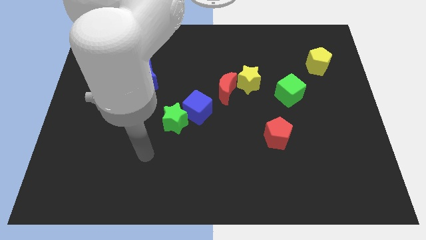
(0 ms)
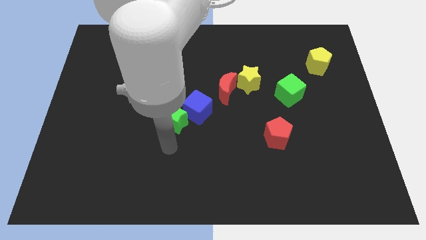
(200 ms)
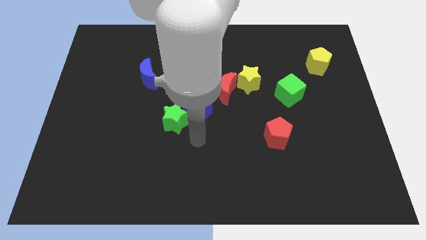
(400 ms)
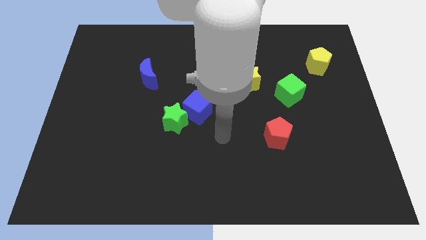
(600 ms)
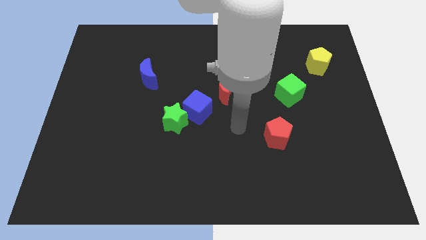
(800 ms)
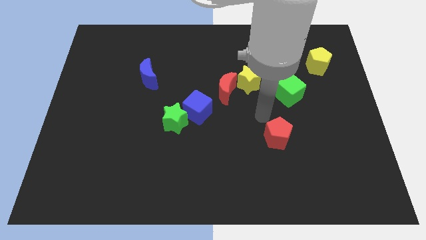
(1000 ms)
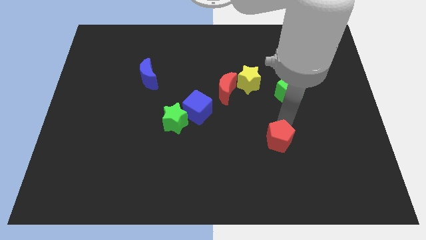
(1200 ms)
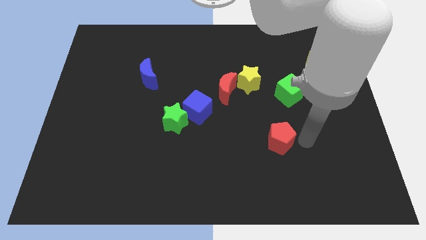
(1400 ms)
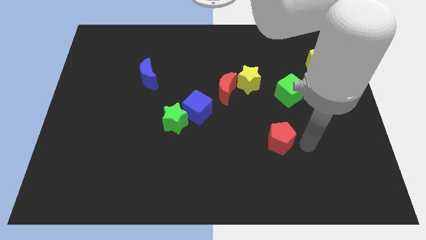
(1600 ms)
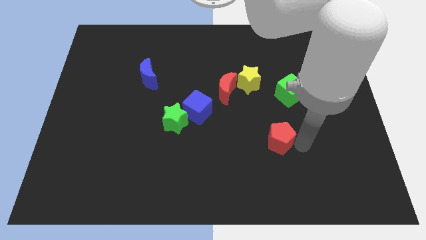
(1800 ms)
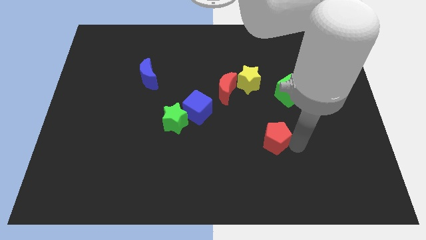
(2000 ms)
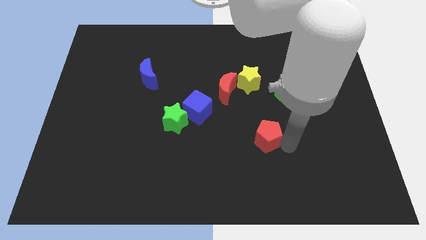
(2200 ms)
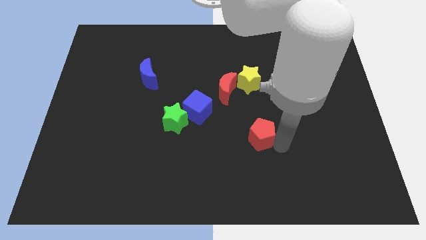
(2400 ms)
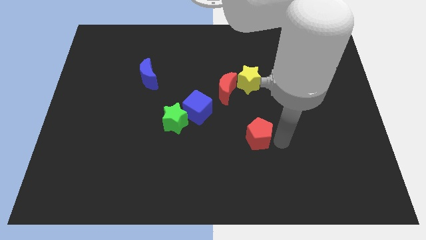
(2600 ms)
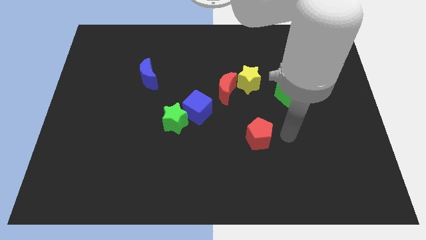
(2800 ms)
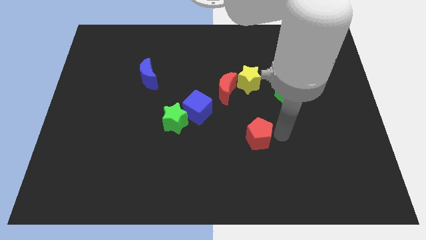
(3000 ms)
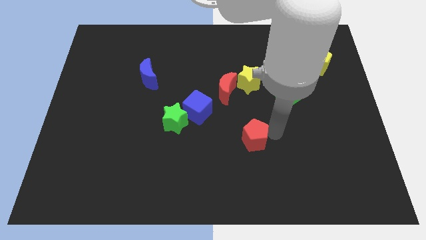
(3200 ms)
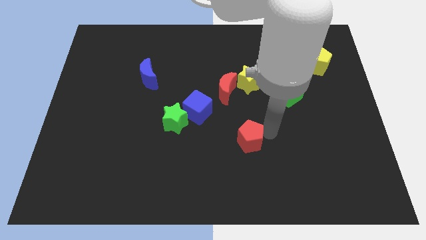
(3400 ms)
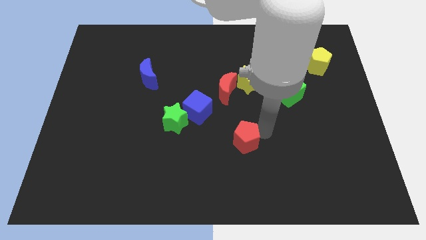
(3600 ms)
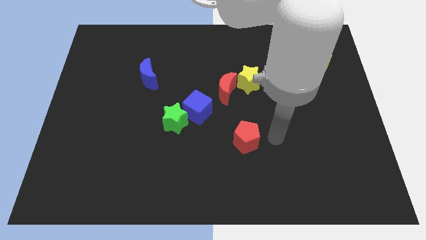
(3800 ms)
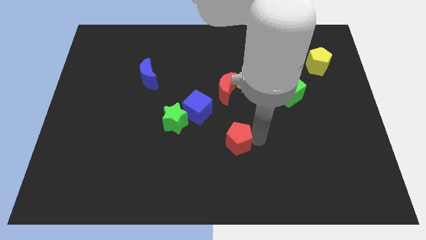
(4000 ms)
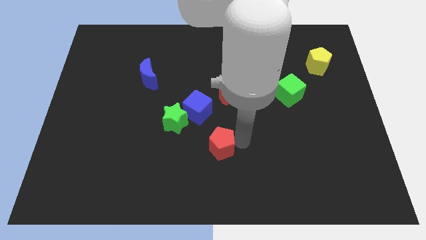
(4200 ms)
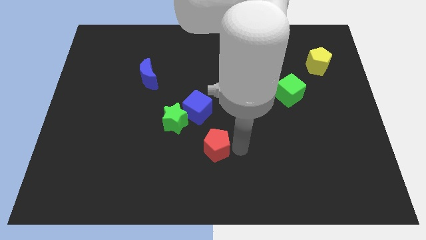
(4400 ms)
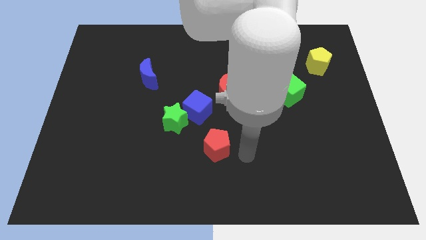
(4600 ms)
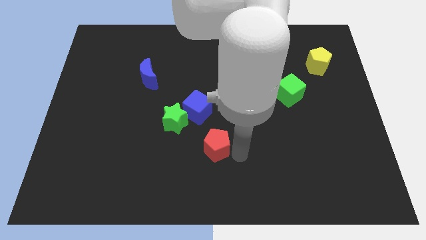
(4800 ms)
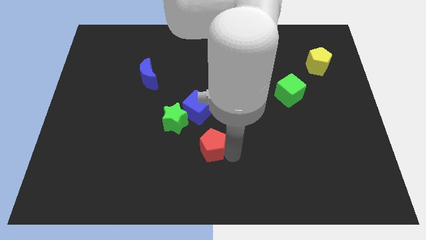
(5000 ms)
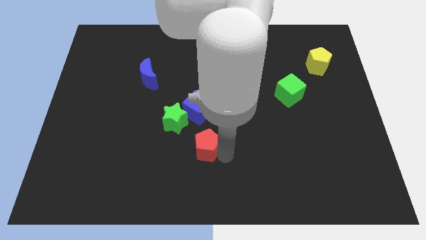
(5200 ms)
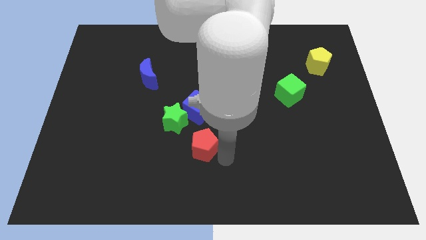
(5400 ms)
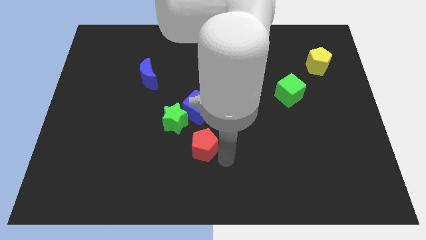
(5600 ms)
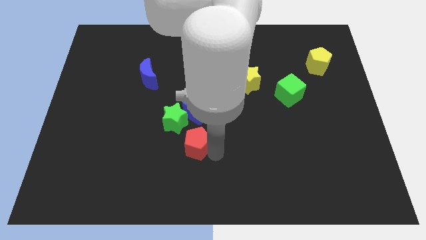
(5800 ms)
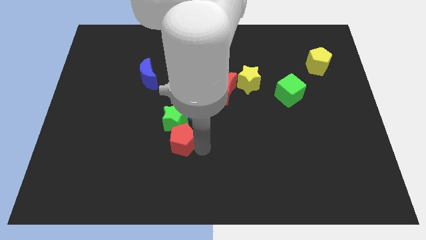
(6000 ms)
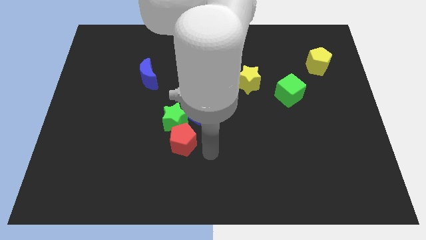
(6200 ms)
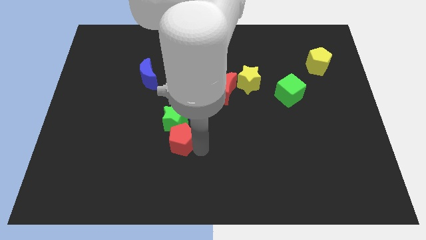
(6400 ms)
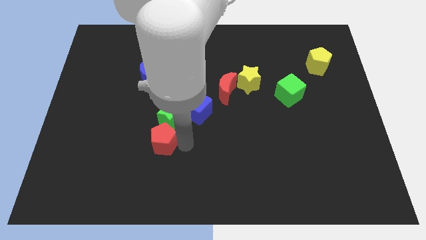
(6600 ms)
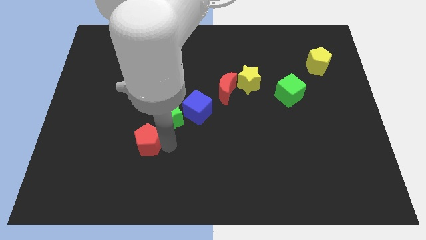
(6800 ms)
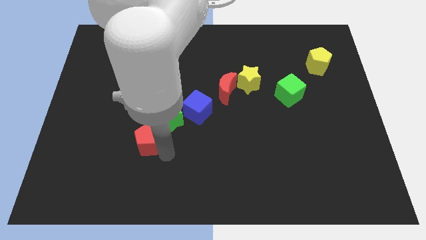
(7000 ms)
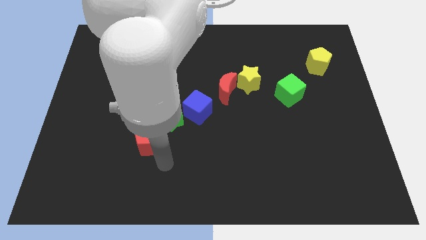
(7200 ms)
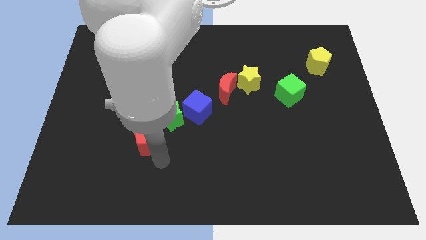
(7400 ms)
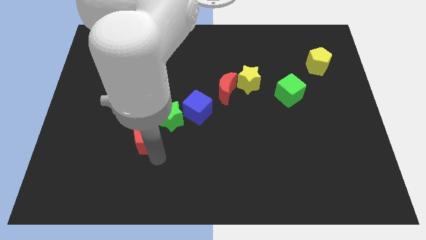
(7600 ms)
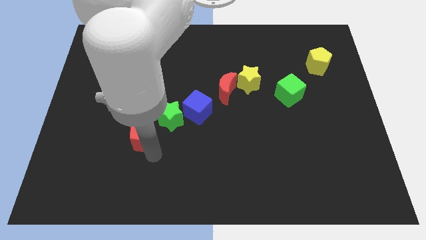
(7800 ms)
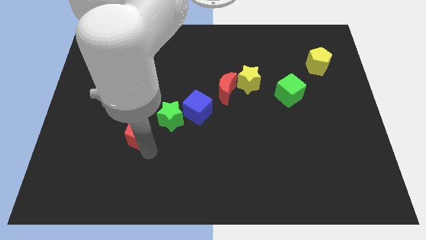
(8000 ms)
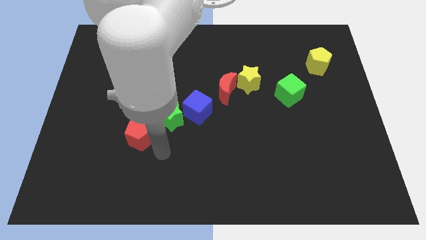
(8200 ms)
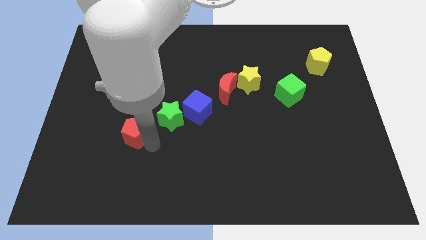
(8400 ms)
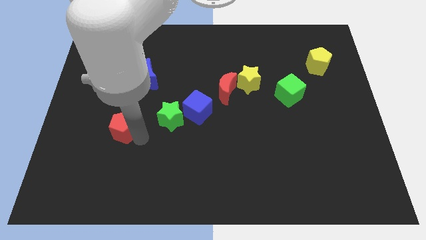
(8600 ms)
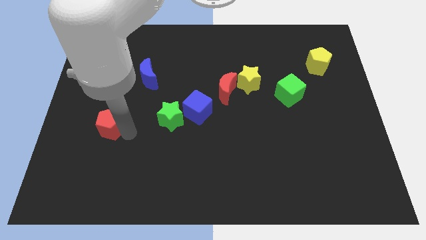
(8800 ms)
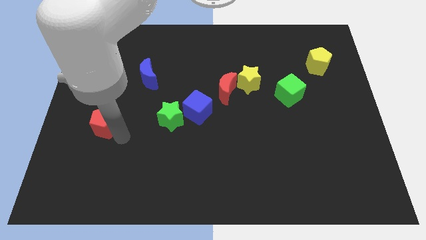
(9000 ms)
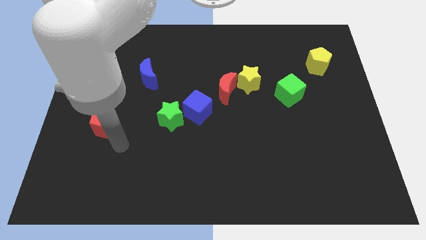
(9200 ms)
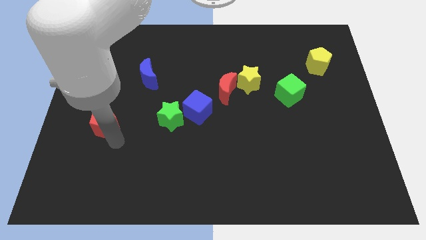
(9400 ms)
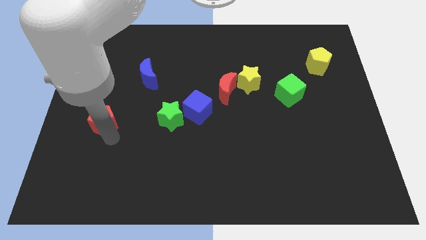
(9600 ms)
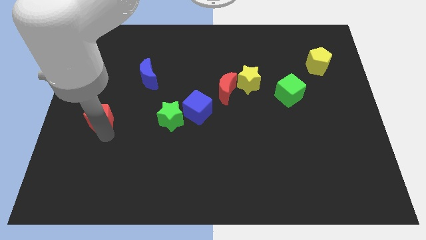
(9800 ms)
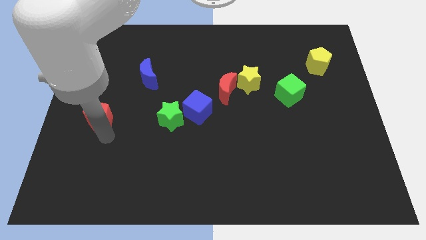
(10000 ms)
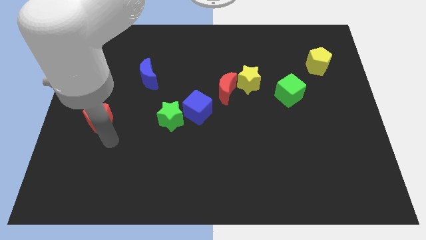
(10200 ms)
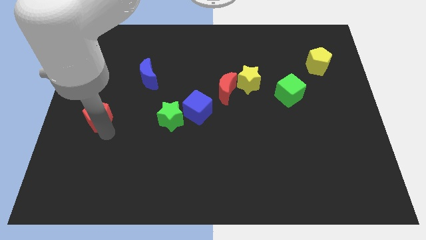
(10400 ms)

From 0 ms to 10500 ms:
push the red pentagon to the center left

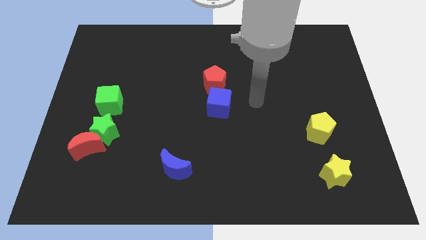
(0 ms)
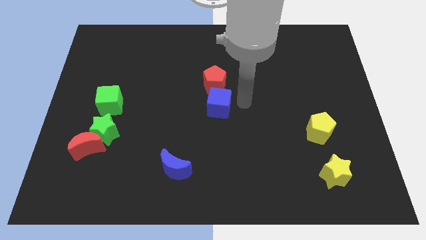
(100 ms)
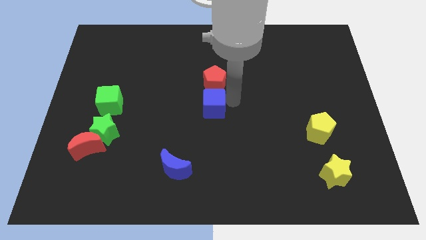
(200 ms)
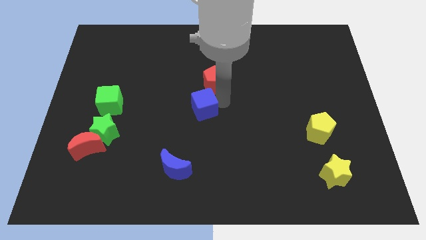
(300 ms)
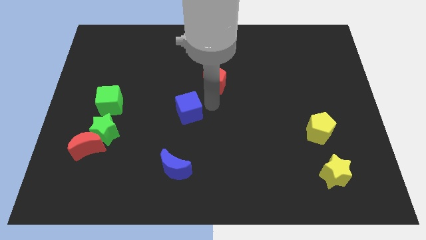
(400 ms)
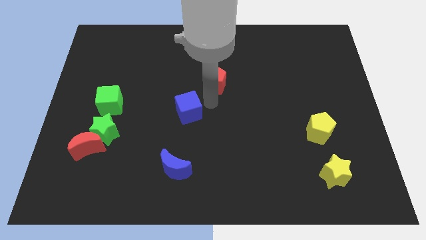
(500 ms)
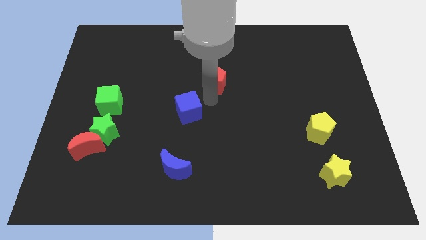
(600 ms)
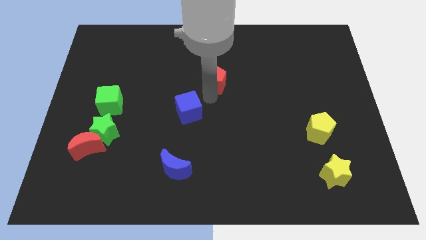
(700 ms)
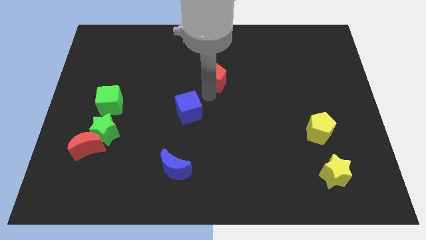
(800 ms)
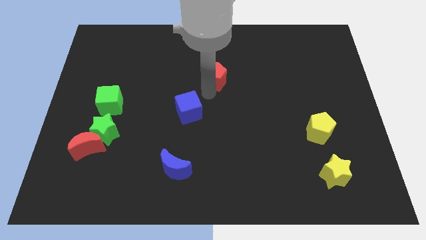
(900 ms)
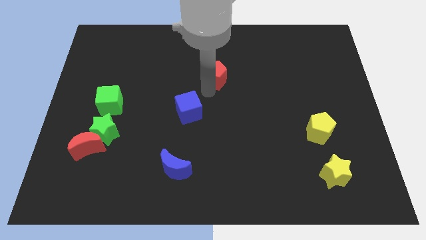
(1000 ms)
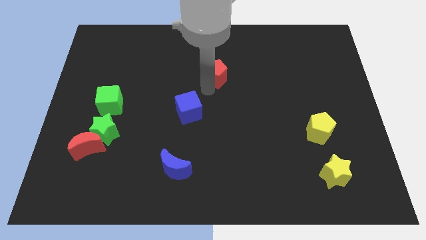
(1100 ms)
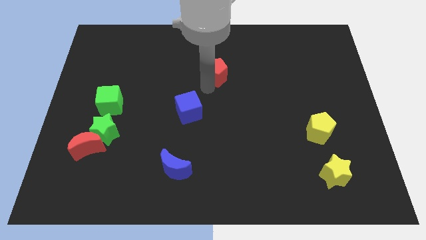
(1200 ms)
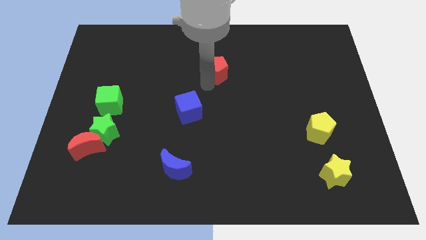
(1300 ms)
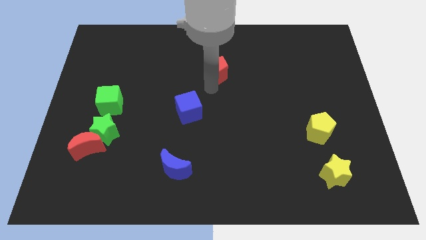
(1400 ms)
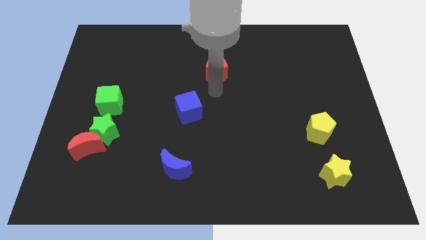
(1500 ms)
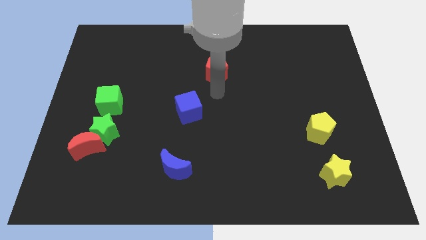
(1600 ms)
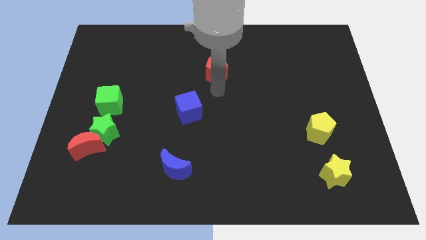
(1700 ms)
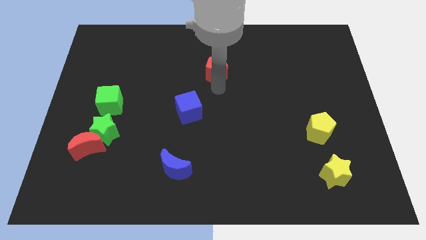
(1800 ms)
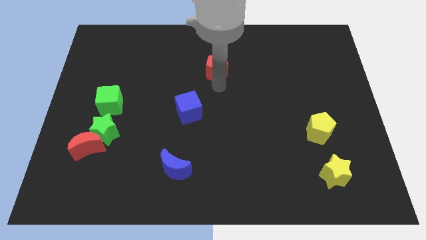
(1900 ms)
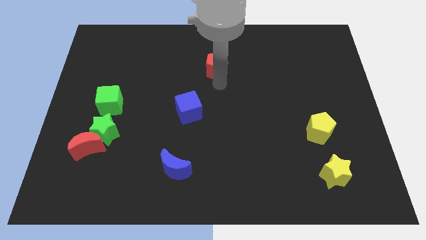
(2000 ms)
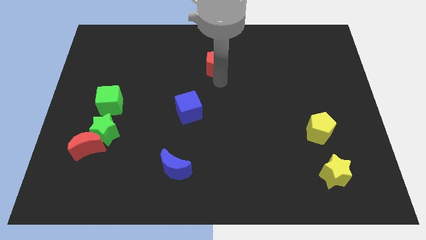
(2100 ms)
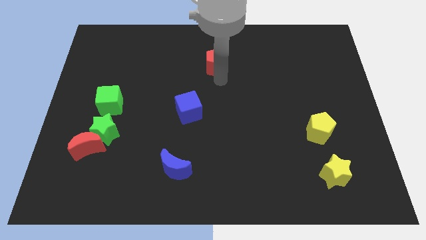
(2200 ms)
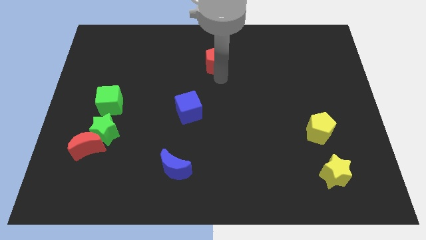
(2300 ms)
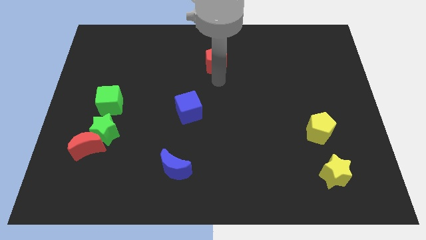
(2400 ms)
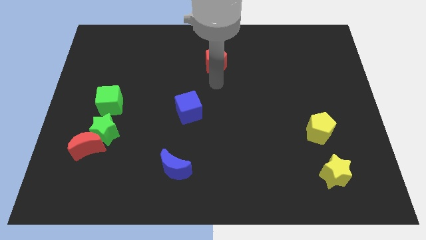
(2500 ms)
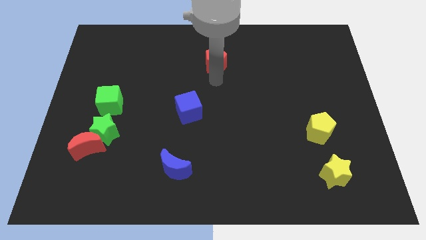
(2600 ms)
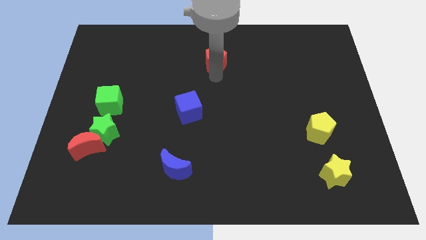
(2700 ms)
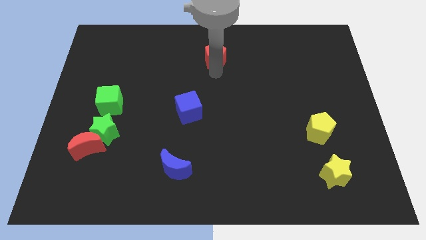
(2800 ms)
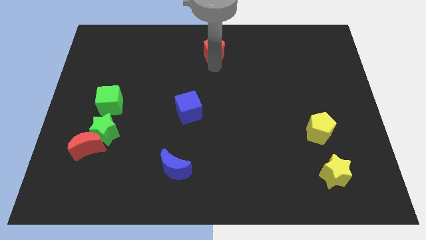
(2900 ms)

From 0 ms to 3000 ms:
move the red pentagon to the top side
